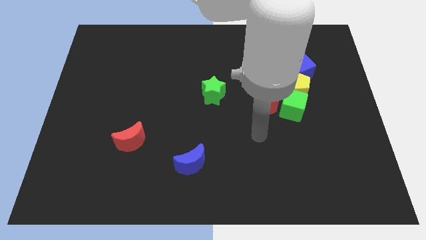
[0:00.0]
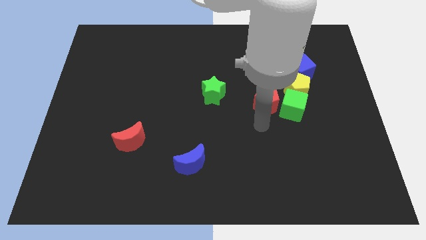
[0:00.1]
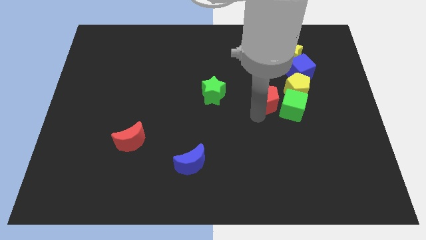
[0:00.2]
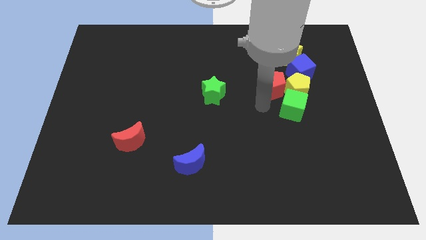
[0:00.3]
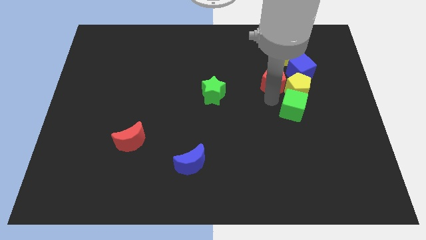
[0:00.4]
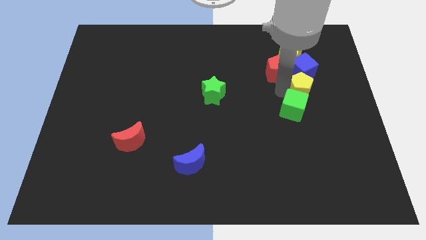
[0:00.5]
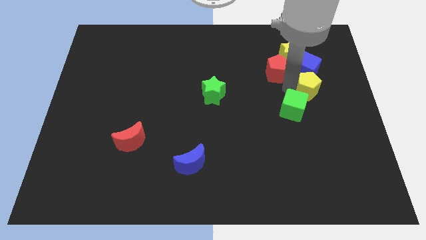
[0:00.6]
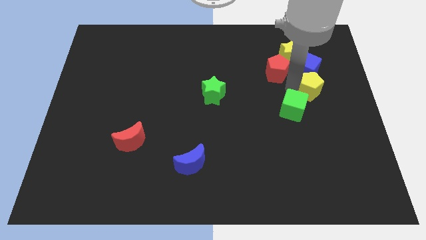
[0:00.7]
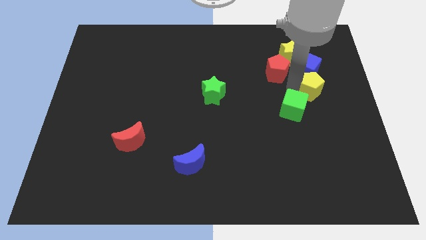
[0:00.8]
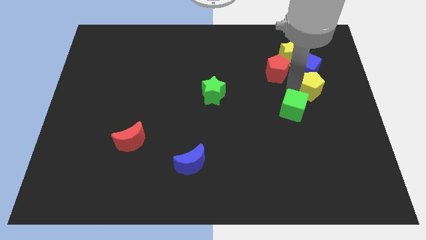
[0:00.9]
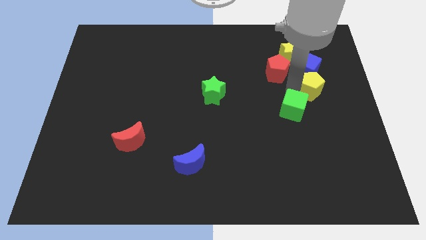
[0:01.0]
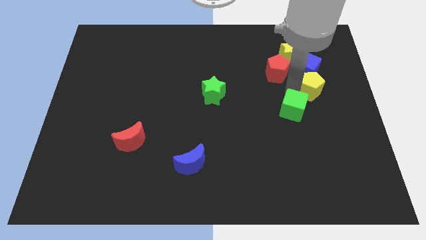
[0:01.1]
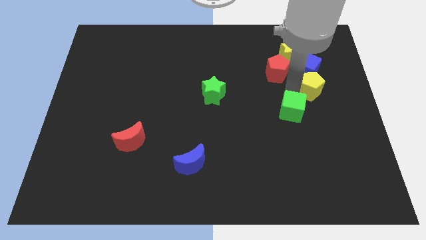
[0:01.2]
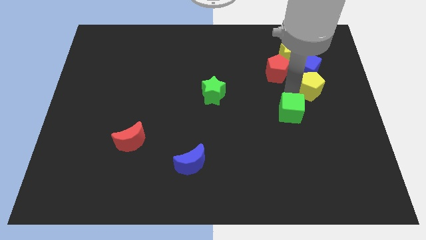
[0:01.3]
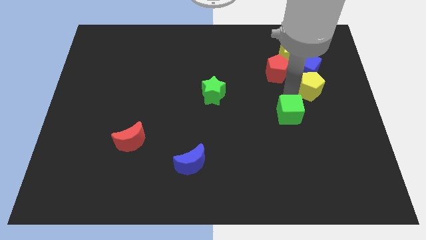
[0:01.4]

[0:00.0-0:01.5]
move the green cube away from the yellow pentagon and red pentagon

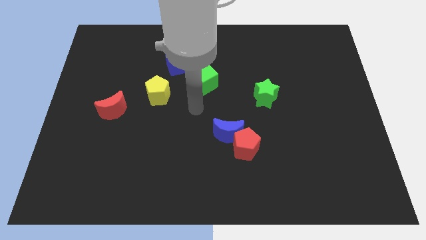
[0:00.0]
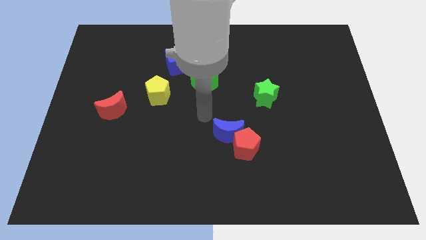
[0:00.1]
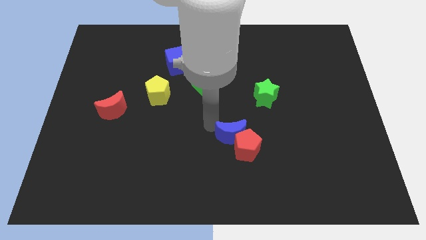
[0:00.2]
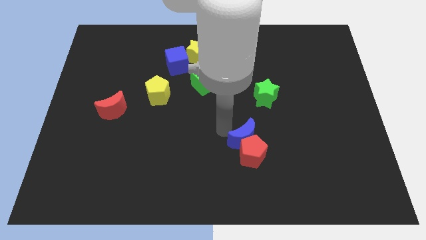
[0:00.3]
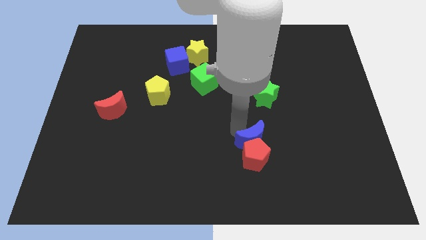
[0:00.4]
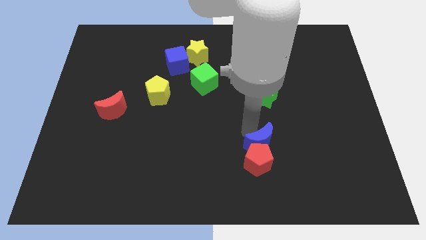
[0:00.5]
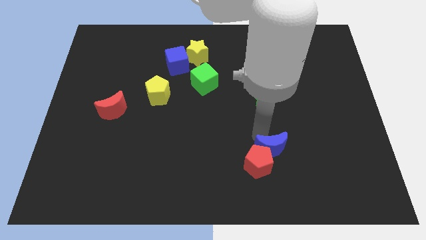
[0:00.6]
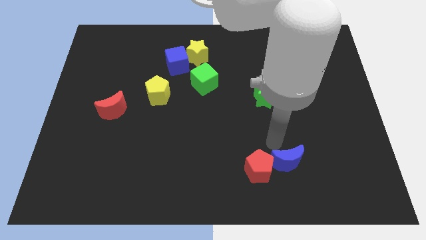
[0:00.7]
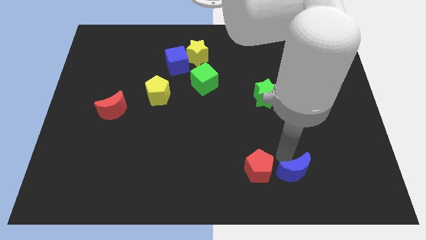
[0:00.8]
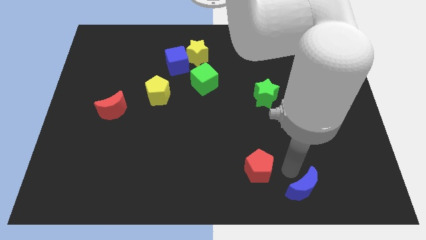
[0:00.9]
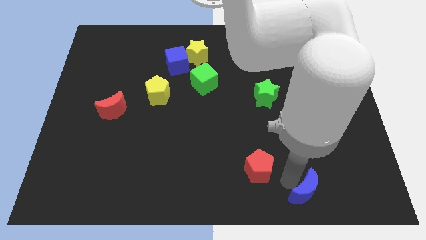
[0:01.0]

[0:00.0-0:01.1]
move the red pentagon away from the blue moon

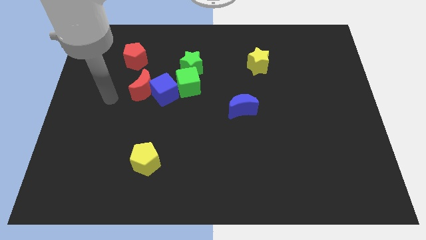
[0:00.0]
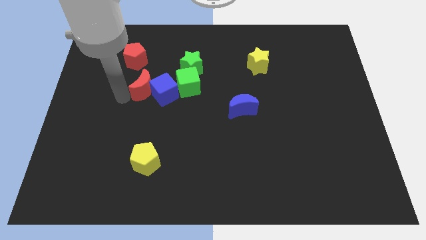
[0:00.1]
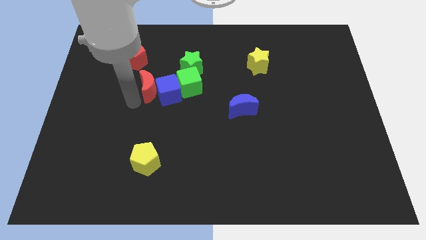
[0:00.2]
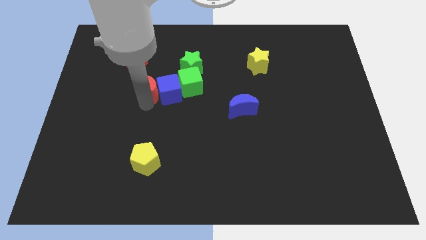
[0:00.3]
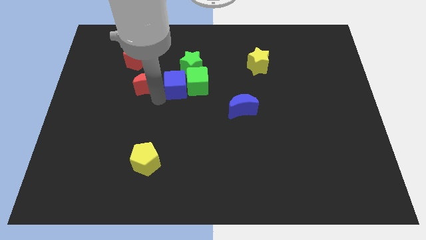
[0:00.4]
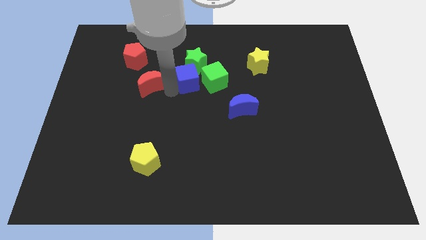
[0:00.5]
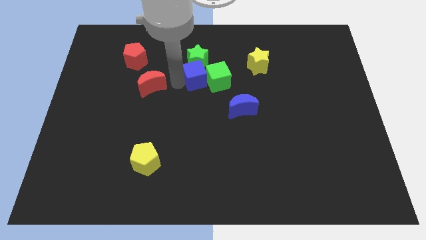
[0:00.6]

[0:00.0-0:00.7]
pull the red moon apart from the blue cube

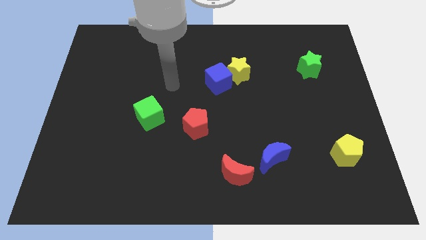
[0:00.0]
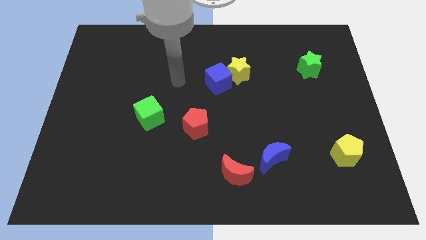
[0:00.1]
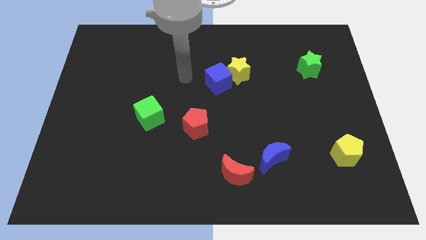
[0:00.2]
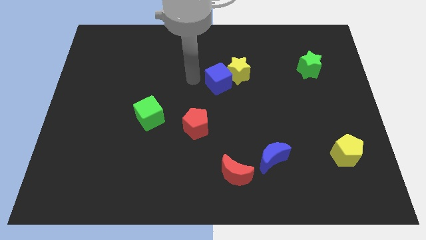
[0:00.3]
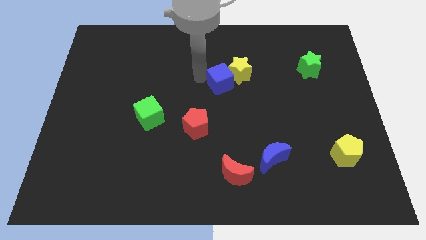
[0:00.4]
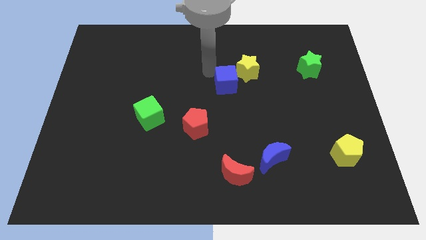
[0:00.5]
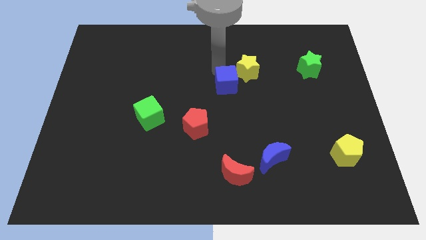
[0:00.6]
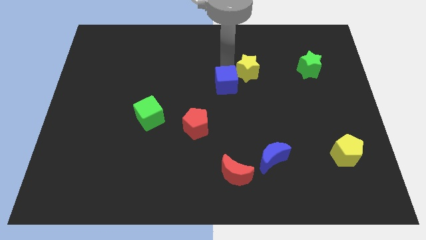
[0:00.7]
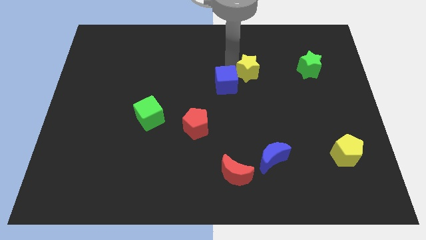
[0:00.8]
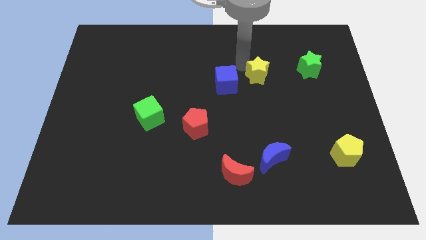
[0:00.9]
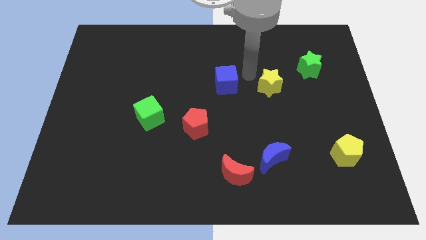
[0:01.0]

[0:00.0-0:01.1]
pull the blue cube apart from the yellow star

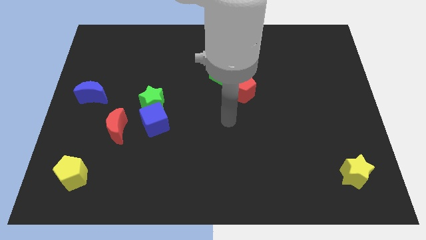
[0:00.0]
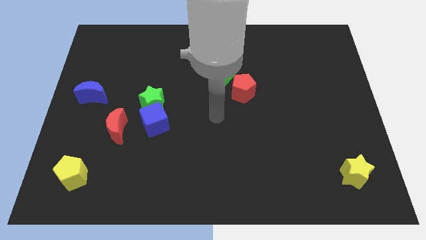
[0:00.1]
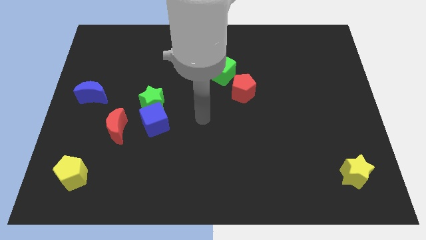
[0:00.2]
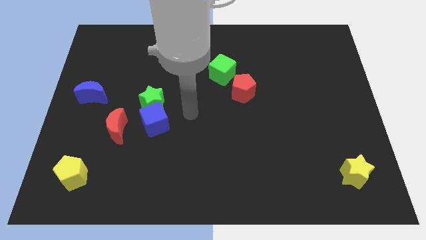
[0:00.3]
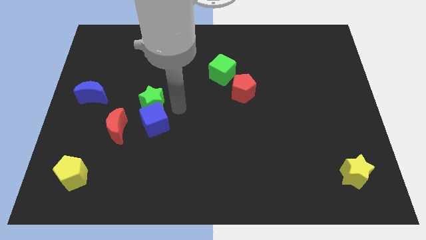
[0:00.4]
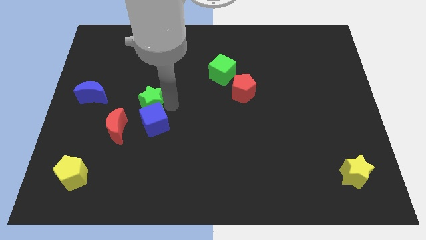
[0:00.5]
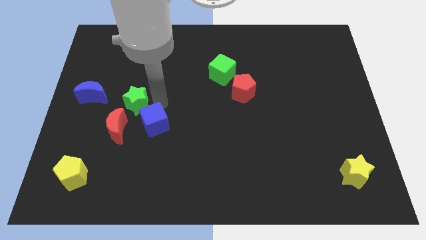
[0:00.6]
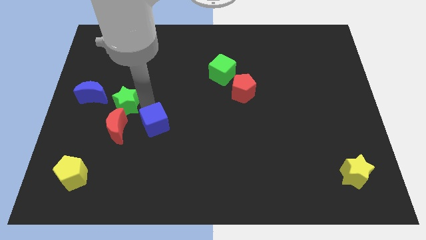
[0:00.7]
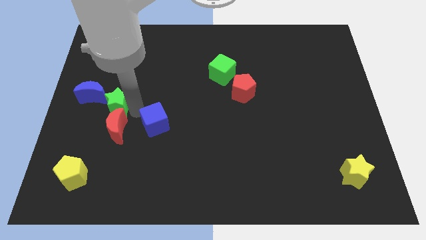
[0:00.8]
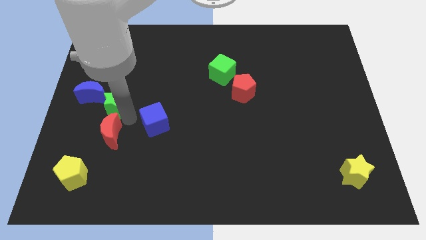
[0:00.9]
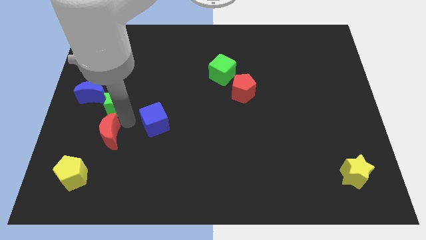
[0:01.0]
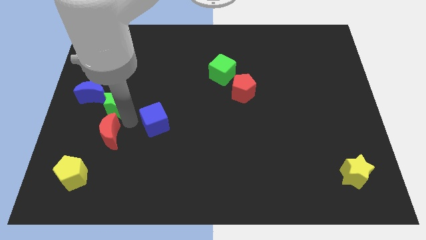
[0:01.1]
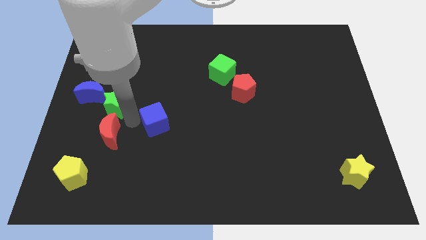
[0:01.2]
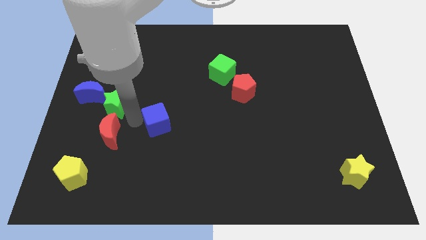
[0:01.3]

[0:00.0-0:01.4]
move the blue cube away from the green star and red moon

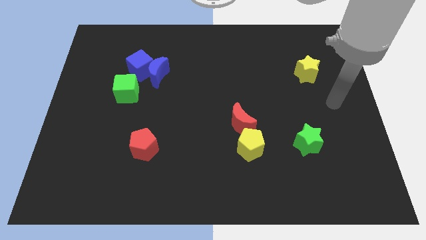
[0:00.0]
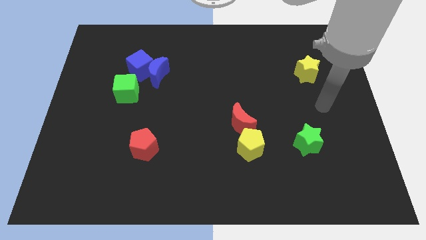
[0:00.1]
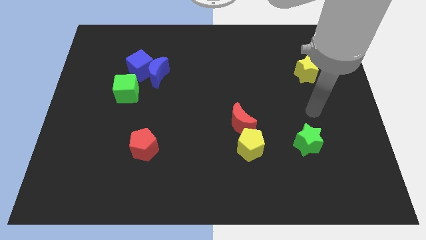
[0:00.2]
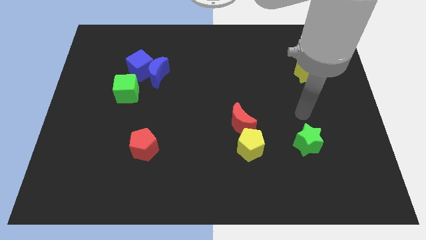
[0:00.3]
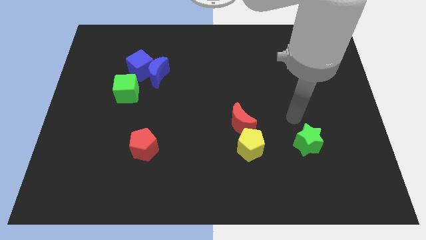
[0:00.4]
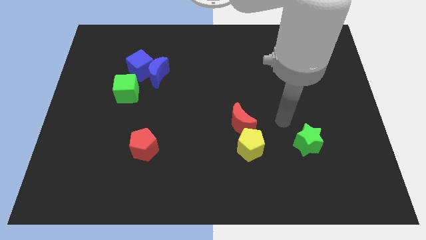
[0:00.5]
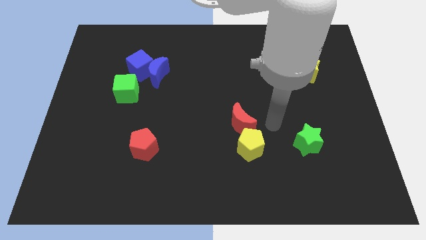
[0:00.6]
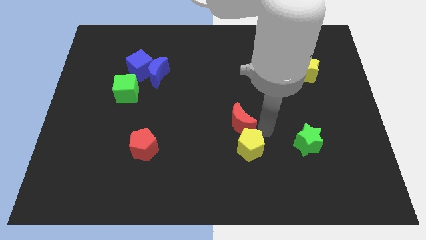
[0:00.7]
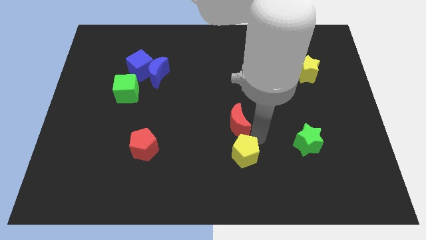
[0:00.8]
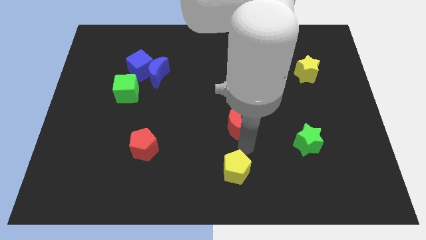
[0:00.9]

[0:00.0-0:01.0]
pull the red moon apart from the yellow pentagon

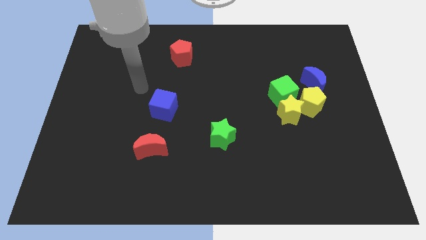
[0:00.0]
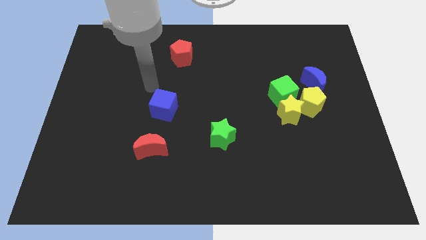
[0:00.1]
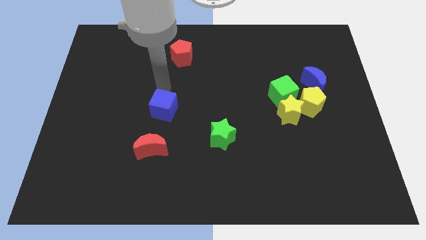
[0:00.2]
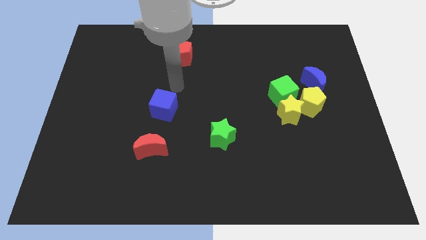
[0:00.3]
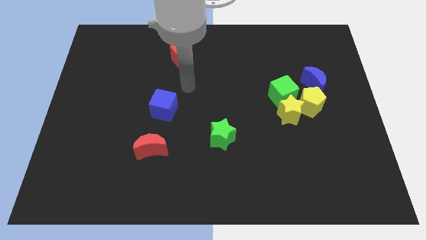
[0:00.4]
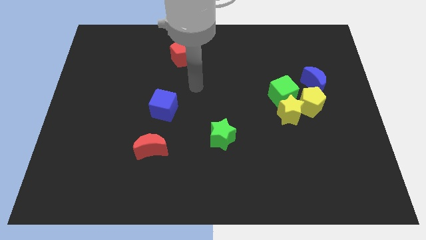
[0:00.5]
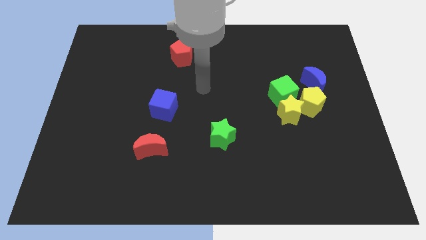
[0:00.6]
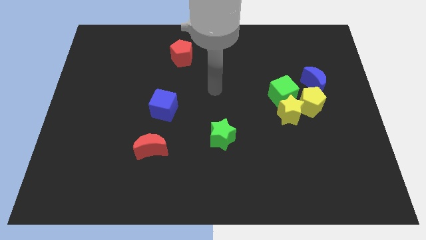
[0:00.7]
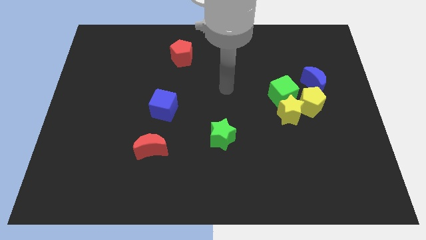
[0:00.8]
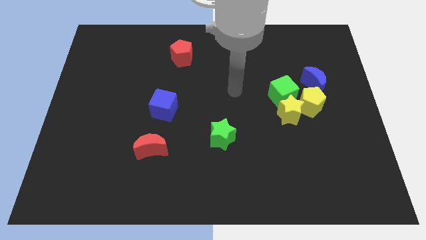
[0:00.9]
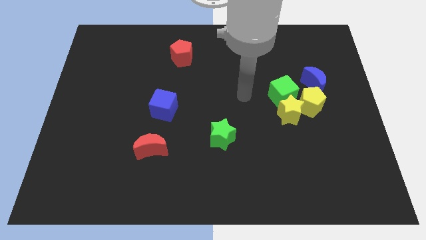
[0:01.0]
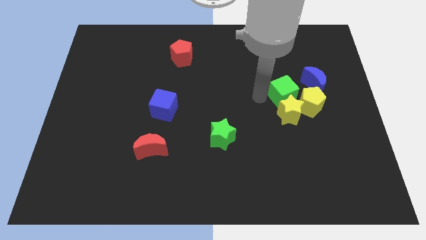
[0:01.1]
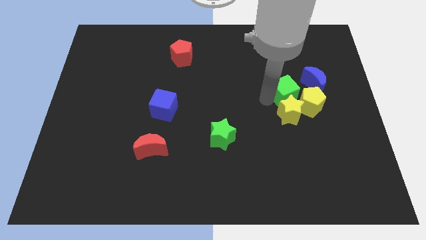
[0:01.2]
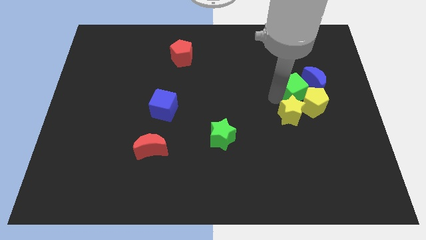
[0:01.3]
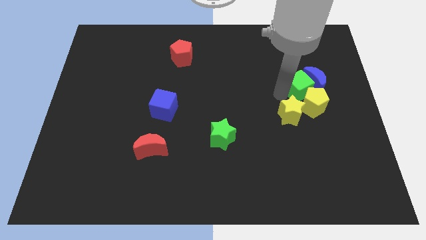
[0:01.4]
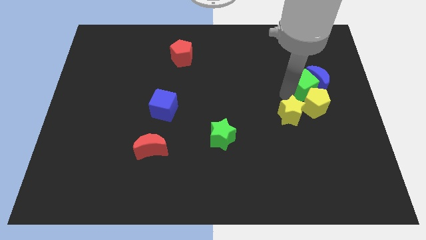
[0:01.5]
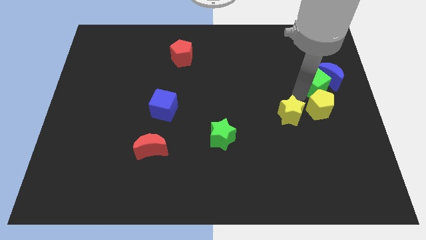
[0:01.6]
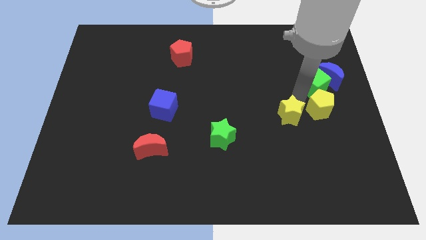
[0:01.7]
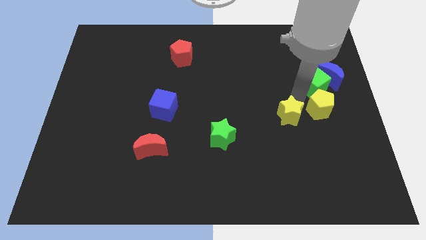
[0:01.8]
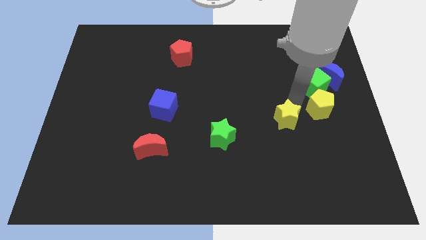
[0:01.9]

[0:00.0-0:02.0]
move the yellow star away from the green cube and yellow pentagon

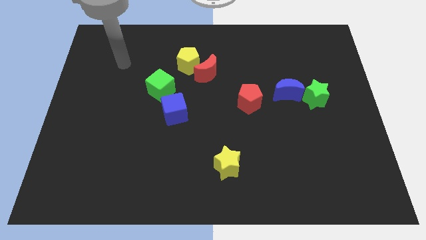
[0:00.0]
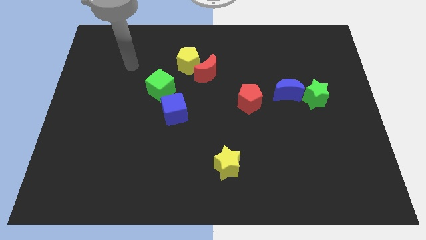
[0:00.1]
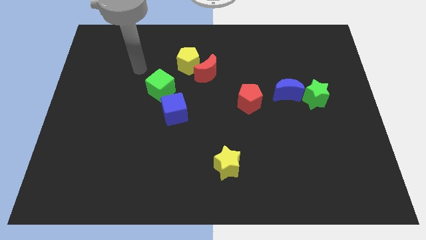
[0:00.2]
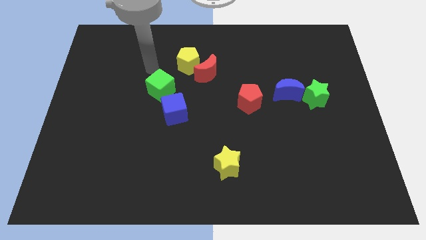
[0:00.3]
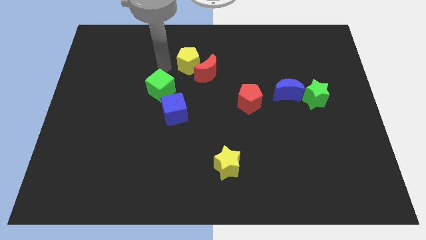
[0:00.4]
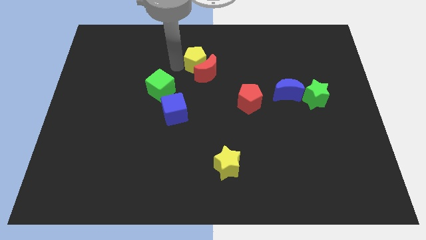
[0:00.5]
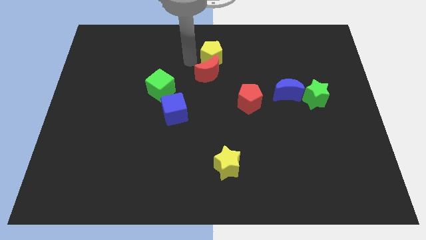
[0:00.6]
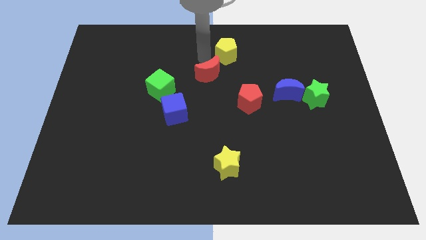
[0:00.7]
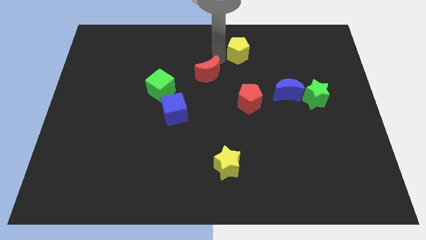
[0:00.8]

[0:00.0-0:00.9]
separate the red moon from the yellow pentagon
